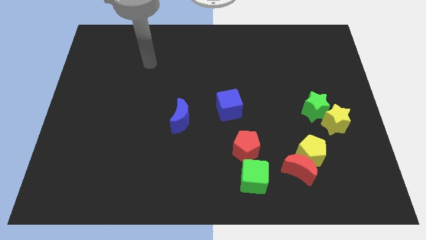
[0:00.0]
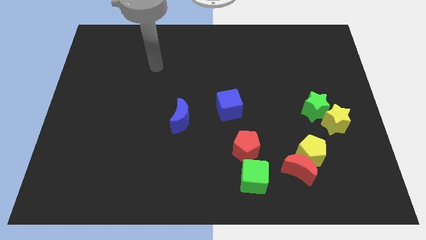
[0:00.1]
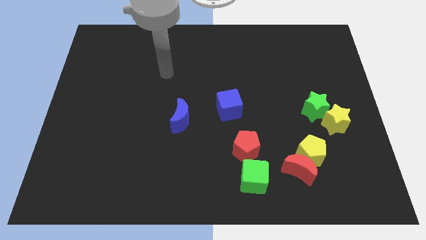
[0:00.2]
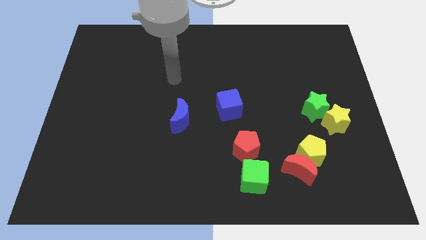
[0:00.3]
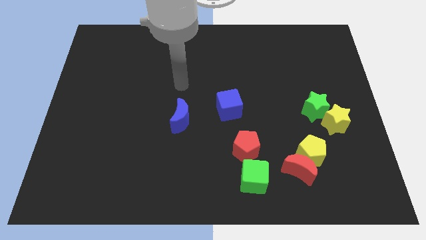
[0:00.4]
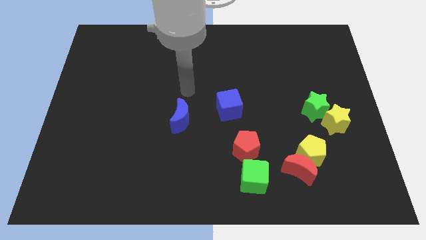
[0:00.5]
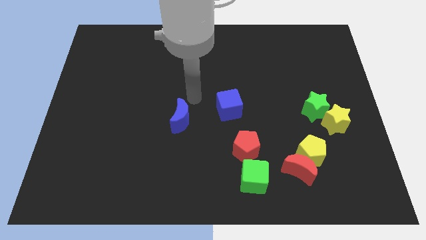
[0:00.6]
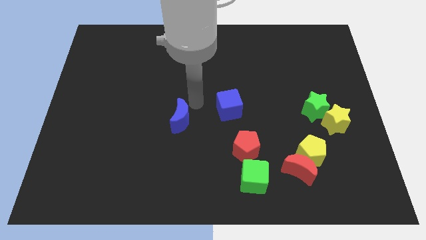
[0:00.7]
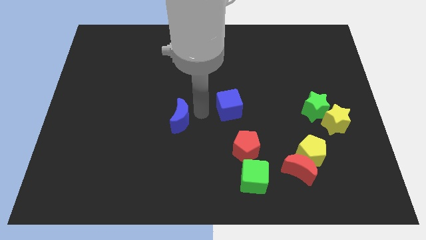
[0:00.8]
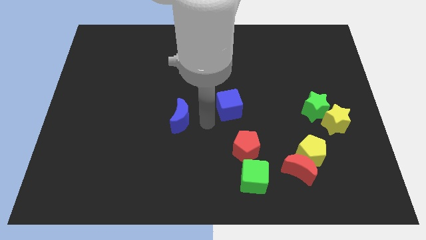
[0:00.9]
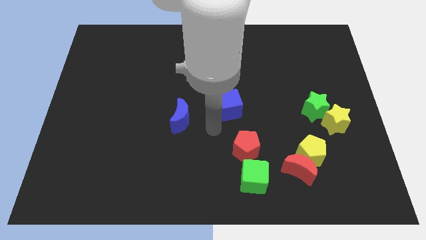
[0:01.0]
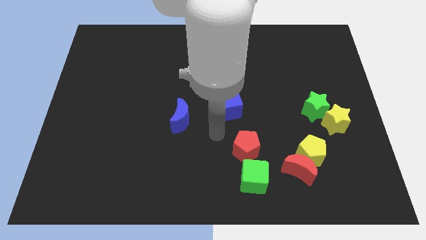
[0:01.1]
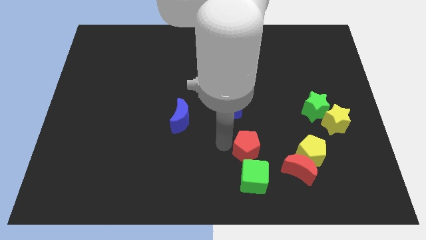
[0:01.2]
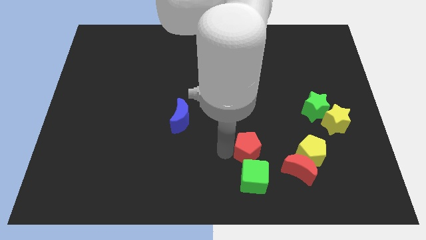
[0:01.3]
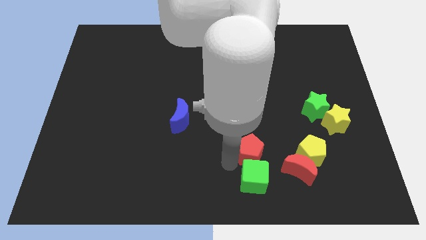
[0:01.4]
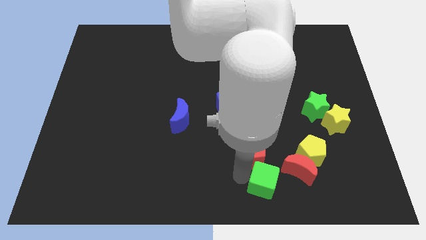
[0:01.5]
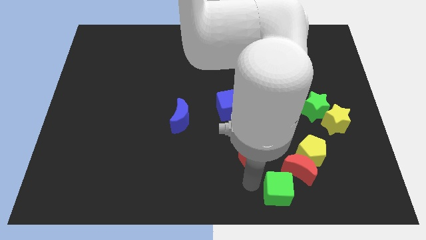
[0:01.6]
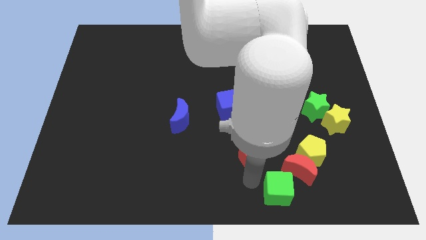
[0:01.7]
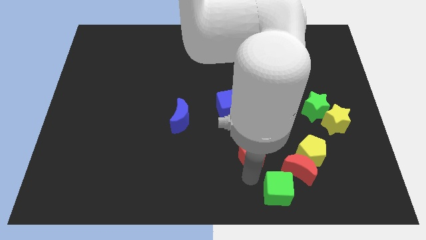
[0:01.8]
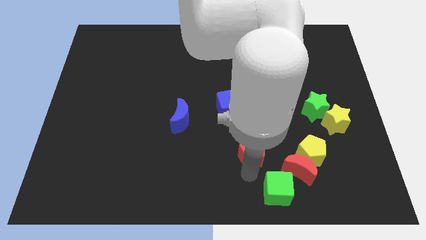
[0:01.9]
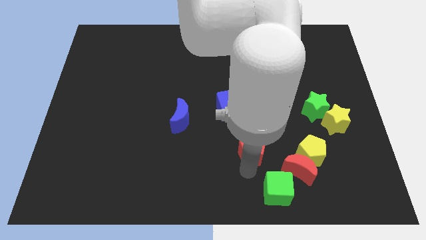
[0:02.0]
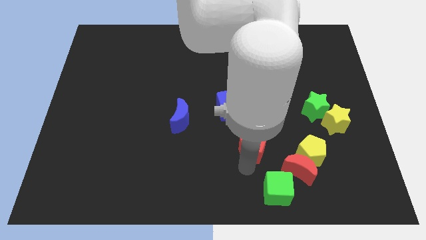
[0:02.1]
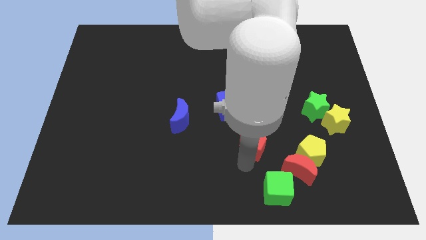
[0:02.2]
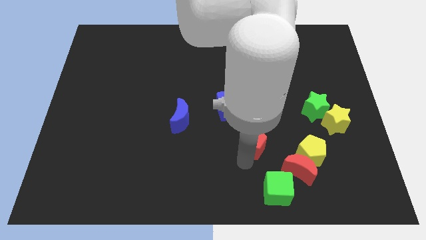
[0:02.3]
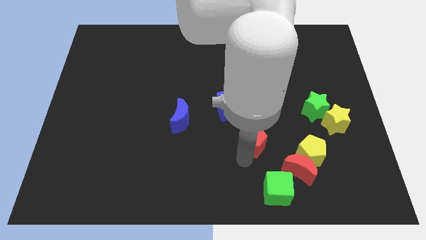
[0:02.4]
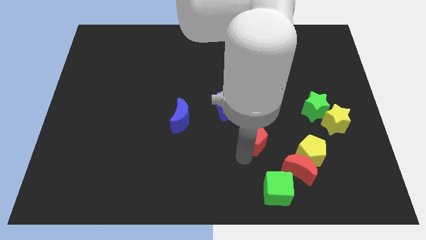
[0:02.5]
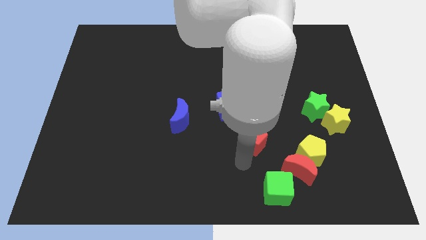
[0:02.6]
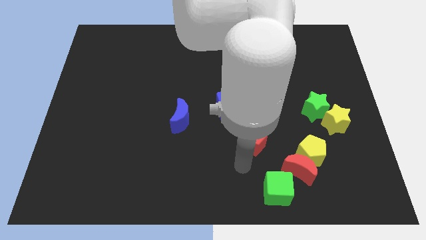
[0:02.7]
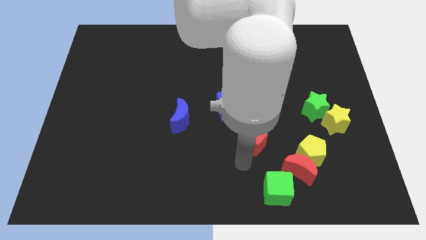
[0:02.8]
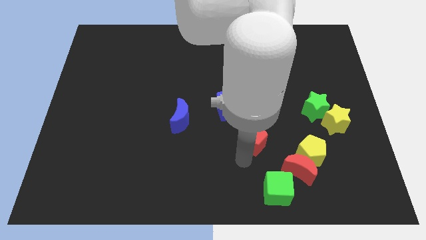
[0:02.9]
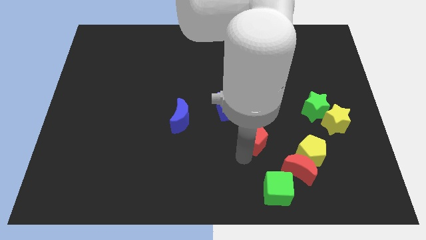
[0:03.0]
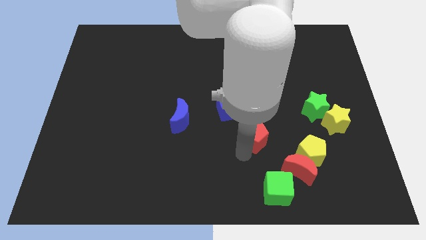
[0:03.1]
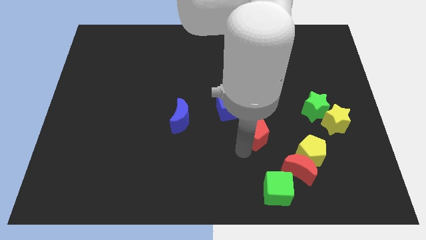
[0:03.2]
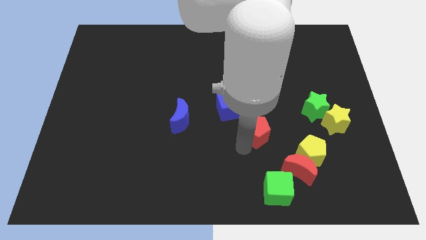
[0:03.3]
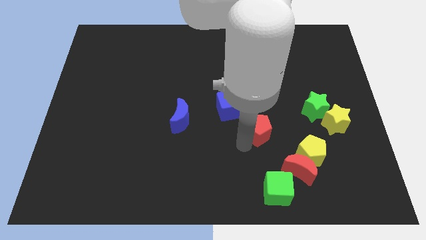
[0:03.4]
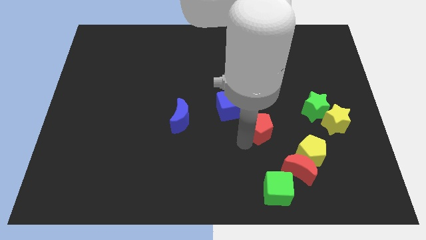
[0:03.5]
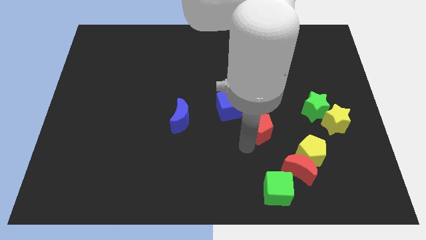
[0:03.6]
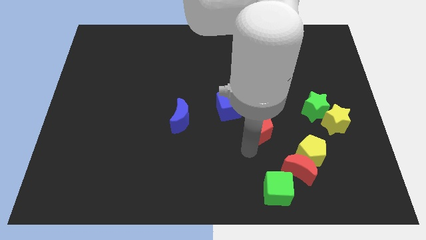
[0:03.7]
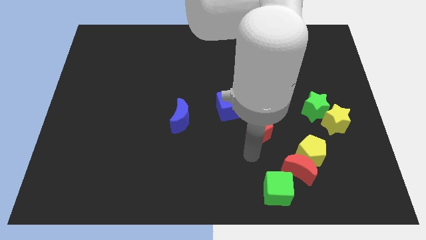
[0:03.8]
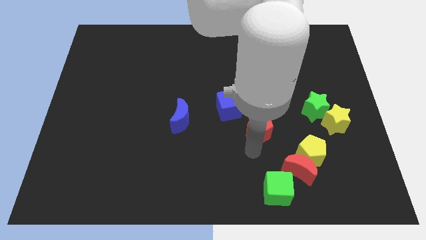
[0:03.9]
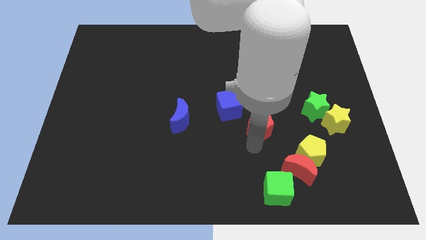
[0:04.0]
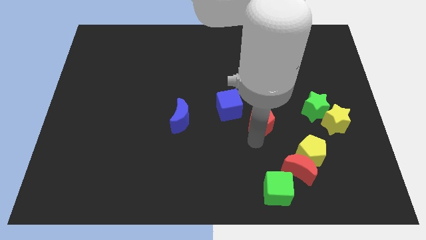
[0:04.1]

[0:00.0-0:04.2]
move the red pentagon upwards and right diagonally a little

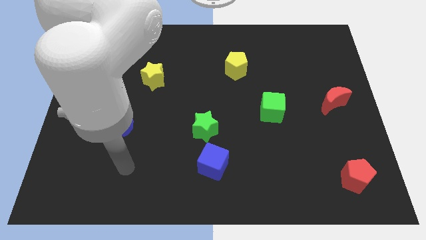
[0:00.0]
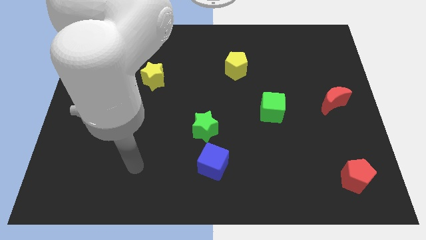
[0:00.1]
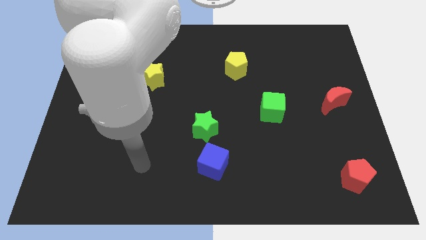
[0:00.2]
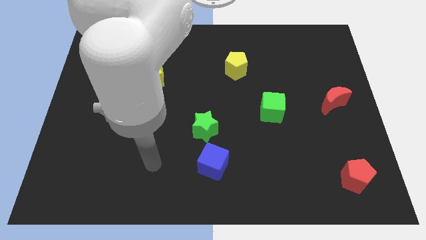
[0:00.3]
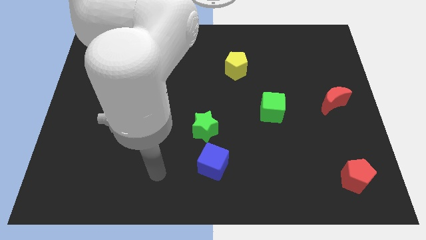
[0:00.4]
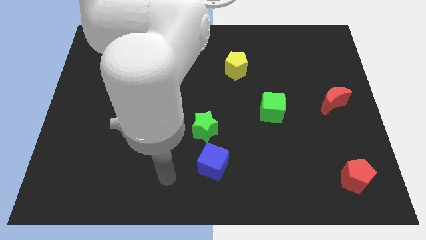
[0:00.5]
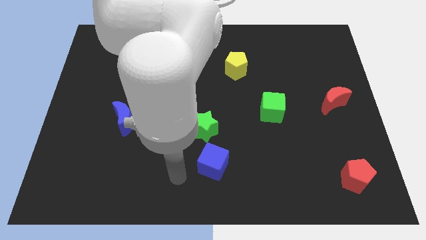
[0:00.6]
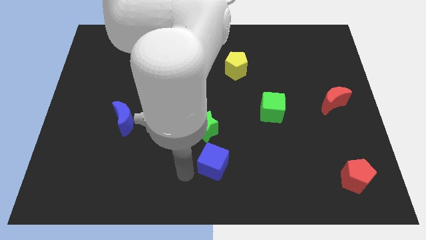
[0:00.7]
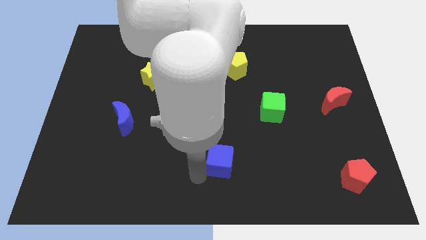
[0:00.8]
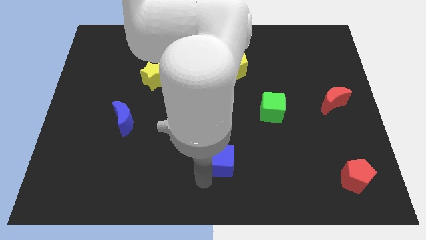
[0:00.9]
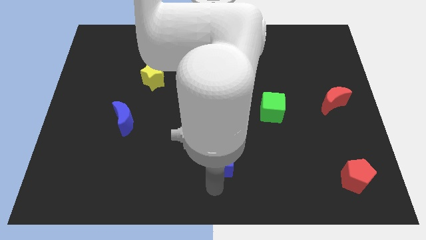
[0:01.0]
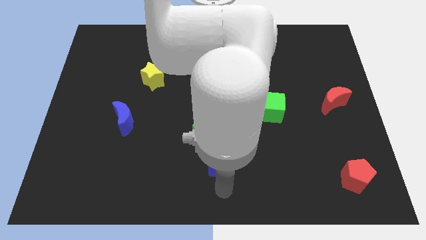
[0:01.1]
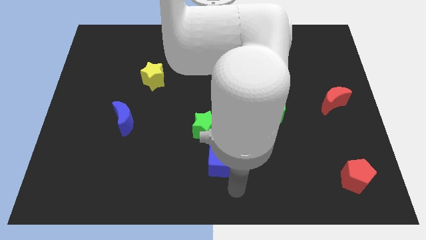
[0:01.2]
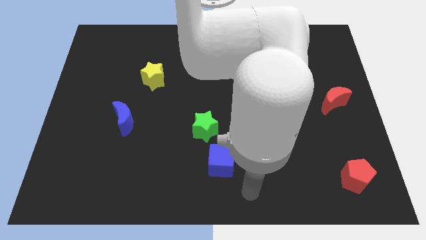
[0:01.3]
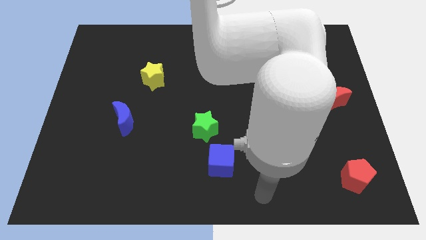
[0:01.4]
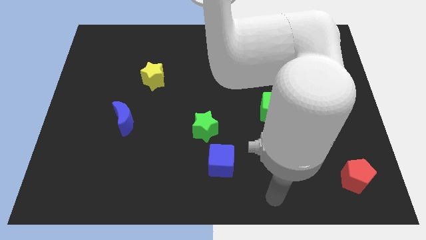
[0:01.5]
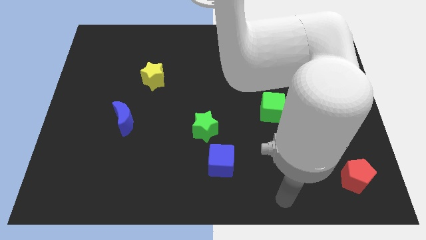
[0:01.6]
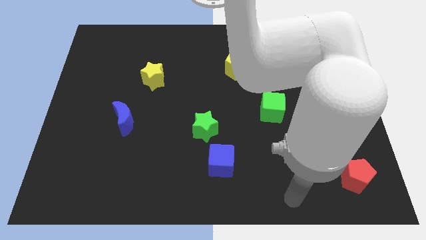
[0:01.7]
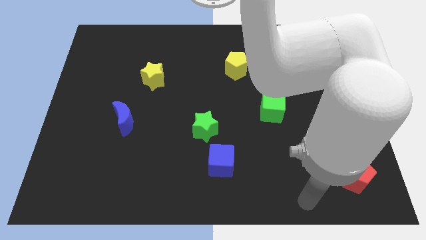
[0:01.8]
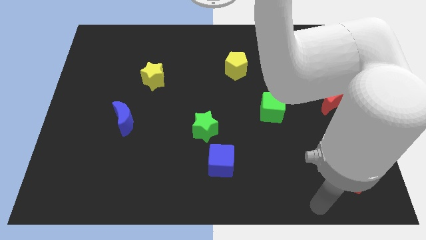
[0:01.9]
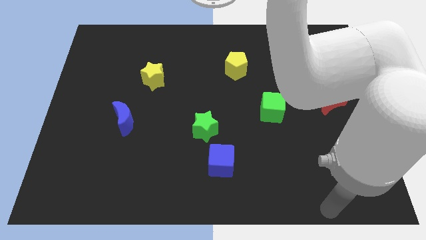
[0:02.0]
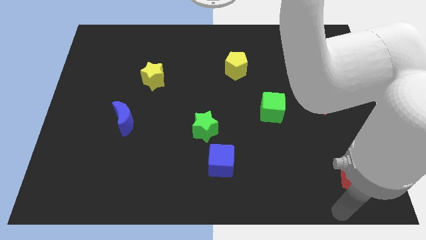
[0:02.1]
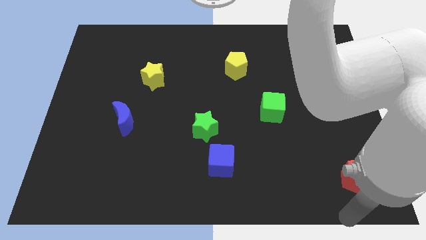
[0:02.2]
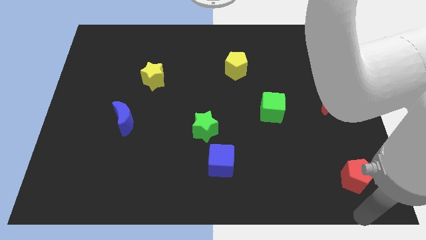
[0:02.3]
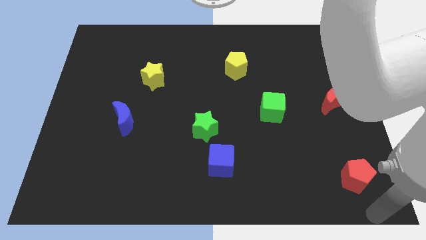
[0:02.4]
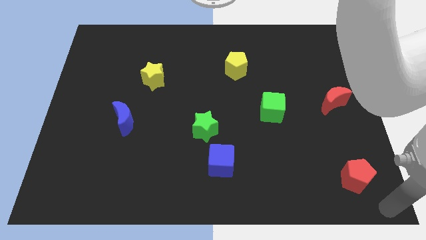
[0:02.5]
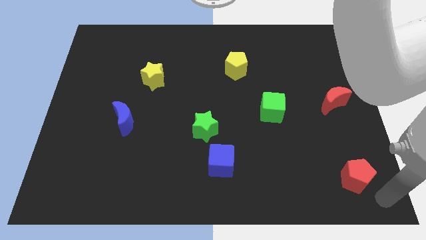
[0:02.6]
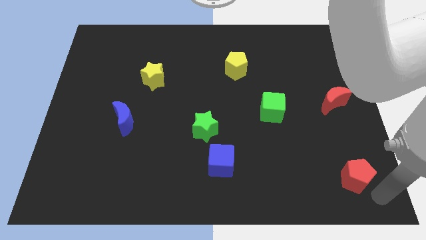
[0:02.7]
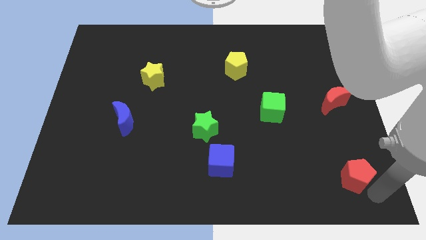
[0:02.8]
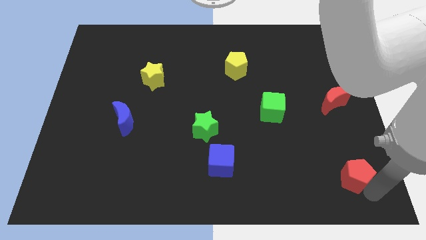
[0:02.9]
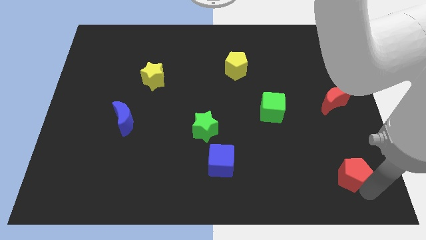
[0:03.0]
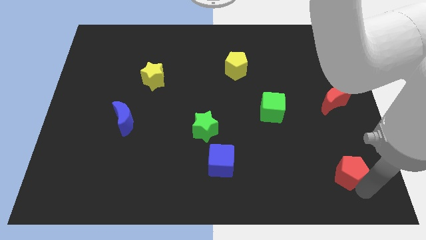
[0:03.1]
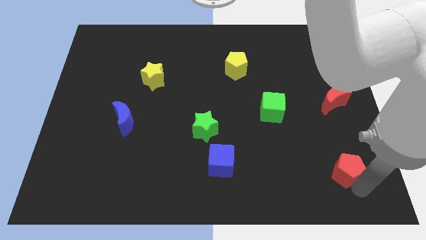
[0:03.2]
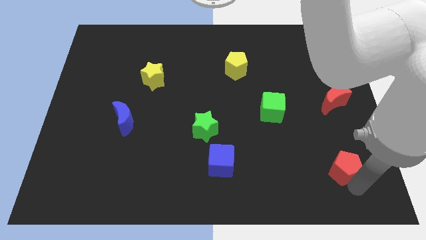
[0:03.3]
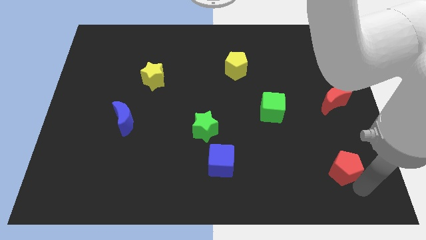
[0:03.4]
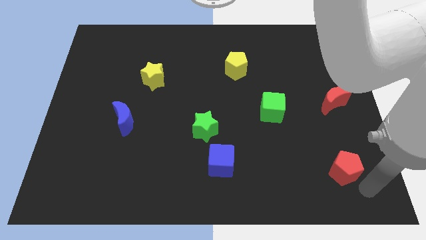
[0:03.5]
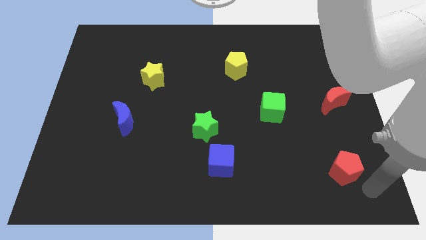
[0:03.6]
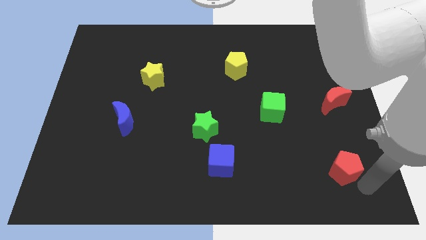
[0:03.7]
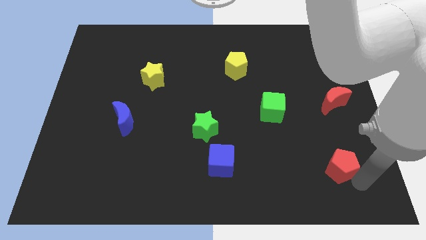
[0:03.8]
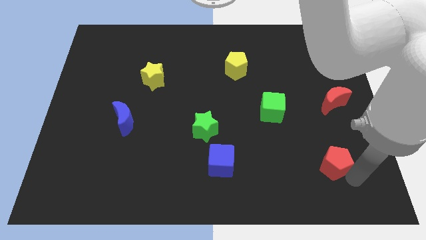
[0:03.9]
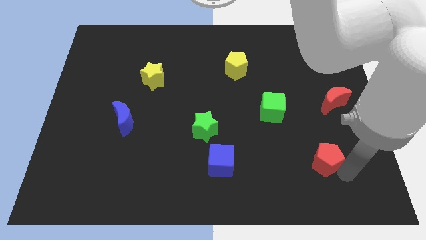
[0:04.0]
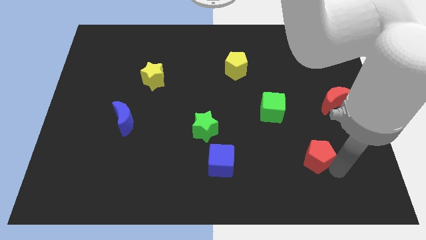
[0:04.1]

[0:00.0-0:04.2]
slightly push the red pentagon up and left diagonally
